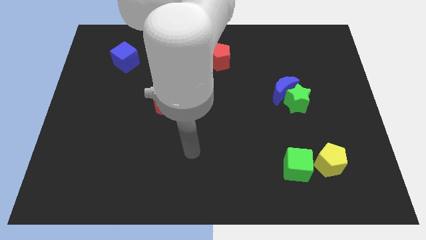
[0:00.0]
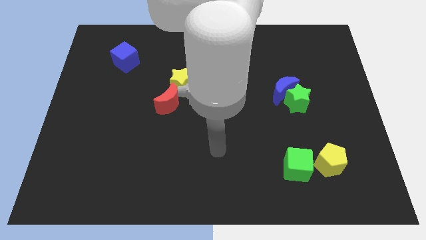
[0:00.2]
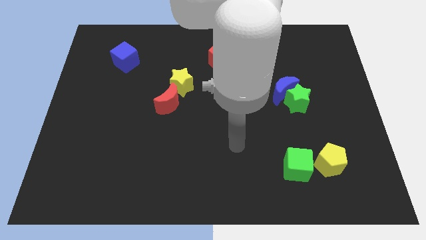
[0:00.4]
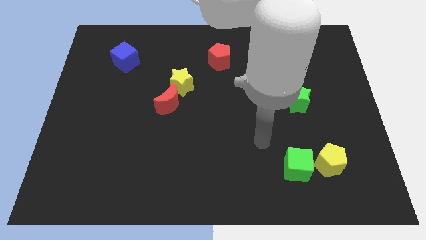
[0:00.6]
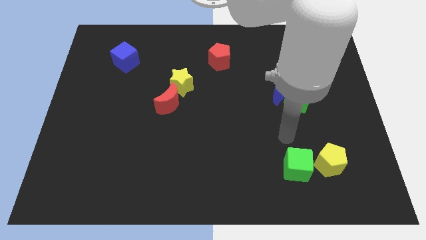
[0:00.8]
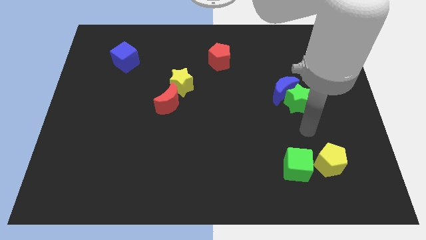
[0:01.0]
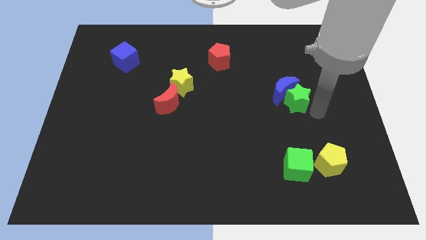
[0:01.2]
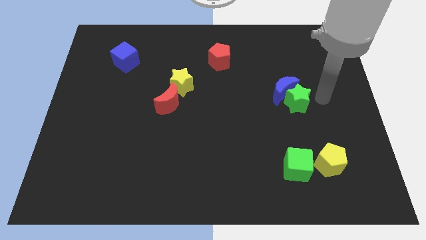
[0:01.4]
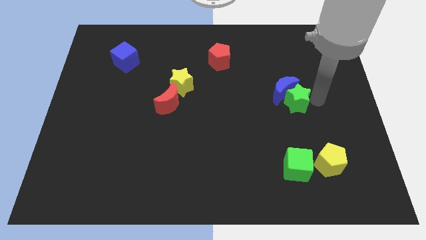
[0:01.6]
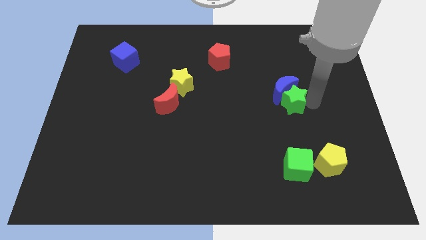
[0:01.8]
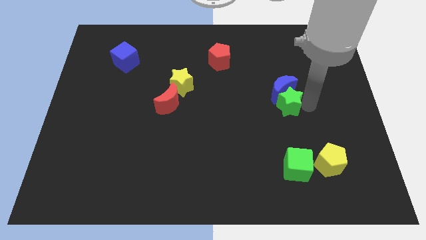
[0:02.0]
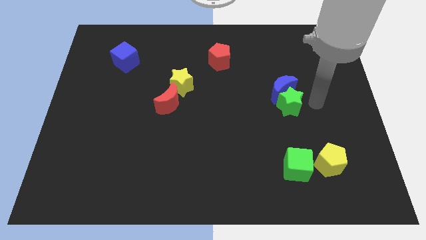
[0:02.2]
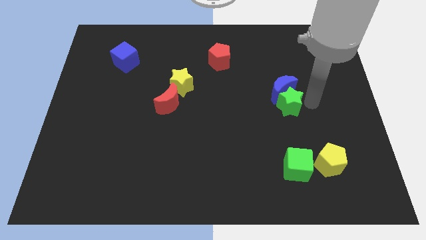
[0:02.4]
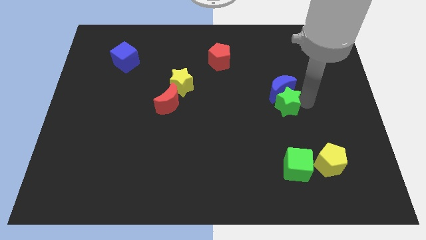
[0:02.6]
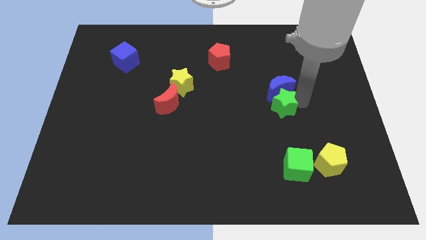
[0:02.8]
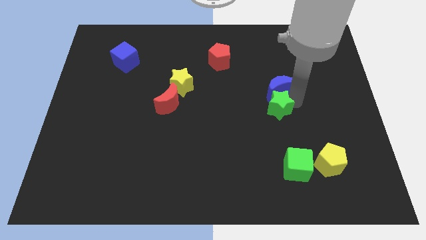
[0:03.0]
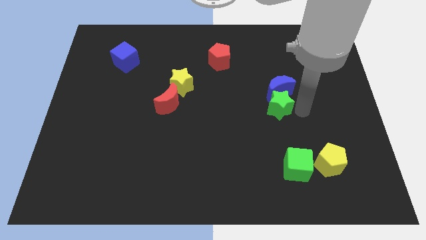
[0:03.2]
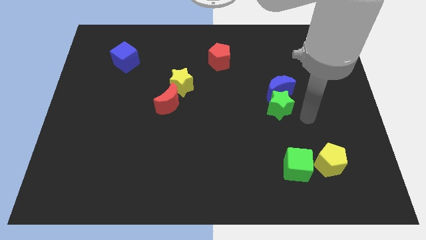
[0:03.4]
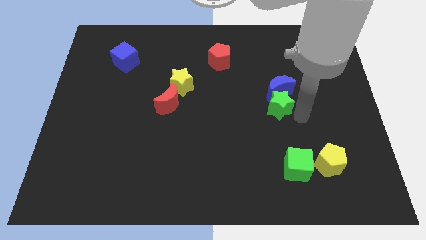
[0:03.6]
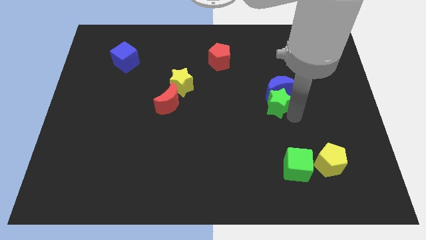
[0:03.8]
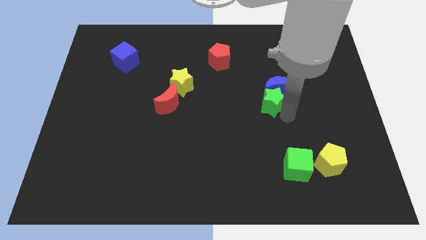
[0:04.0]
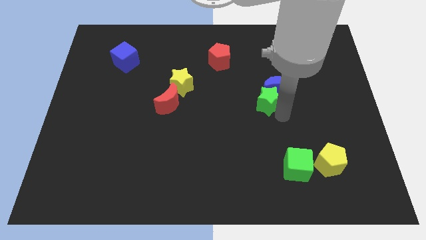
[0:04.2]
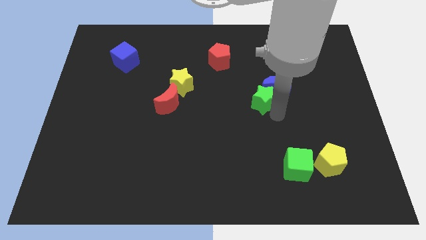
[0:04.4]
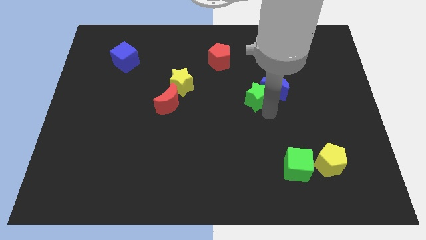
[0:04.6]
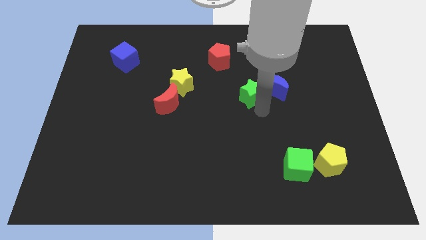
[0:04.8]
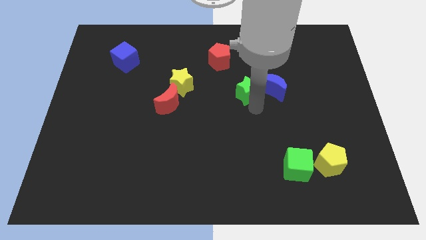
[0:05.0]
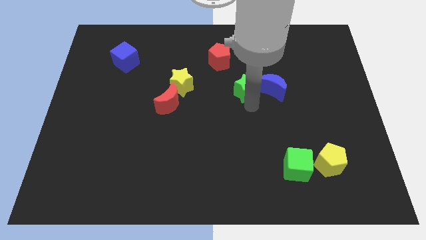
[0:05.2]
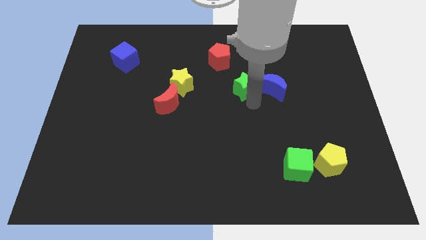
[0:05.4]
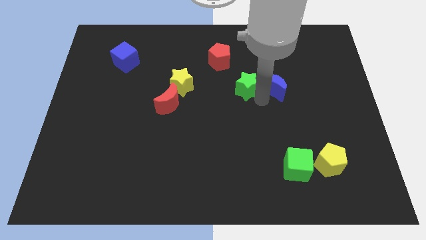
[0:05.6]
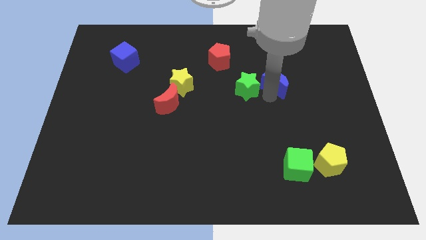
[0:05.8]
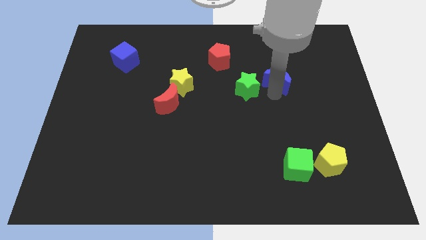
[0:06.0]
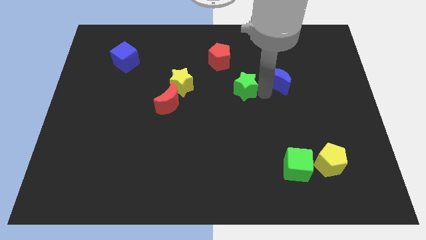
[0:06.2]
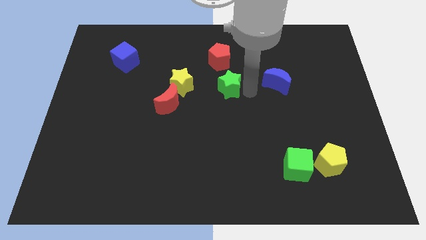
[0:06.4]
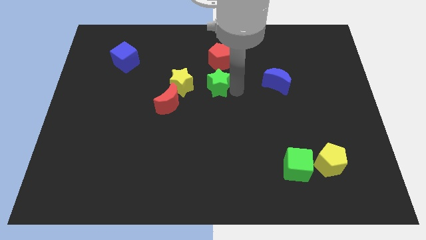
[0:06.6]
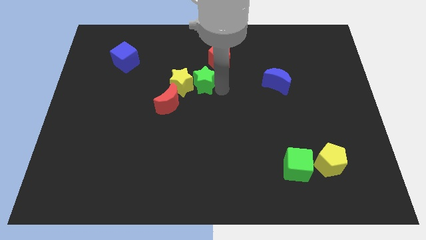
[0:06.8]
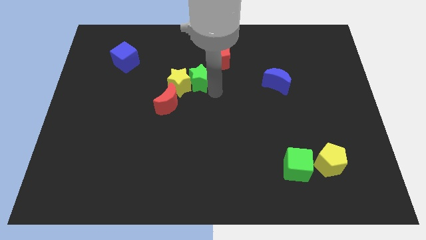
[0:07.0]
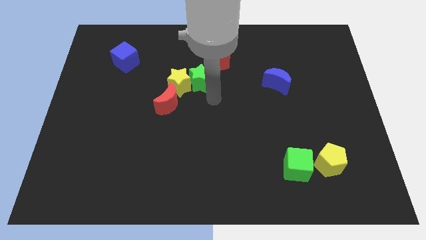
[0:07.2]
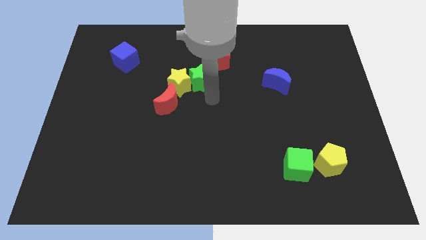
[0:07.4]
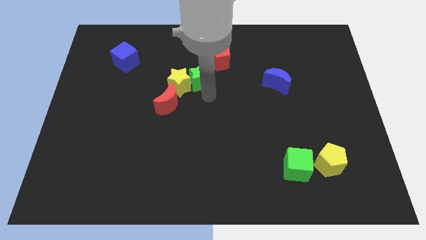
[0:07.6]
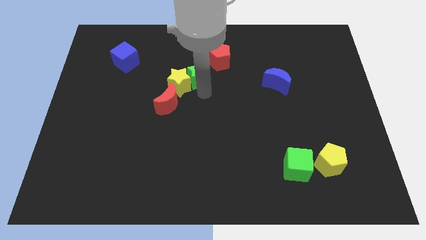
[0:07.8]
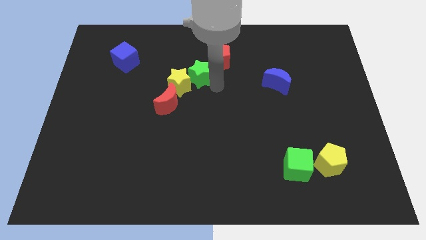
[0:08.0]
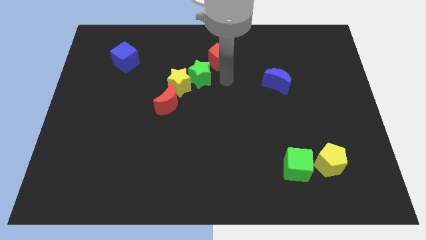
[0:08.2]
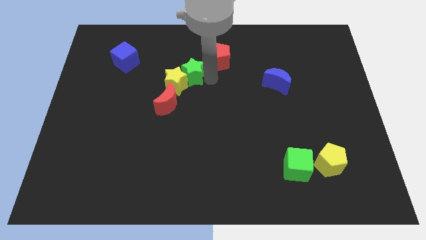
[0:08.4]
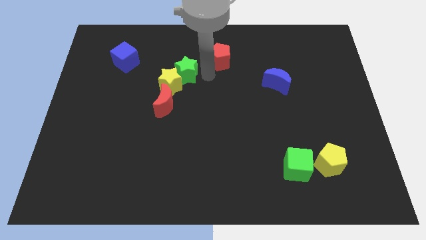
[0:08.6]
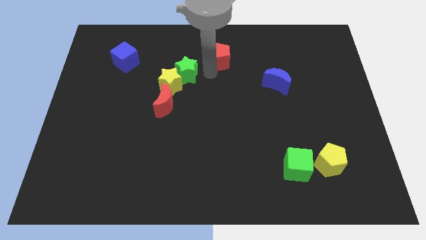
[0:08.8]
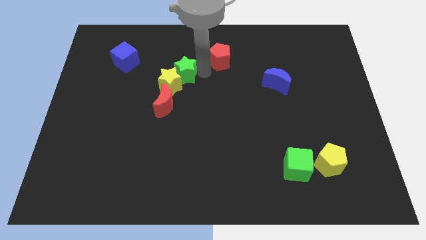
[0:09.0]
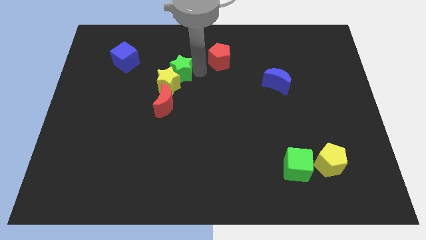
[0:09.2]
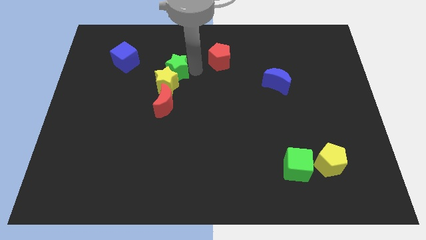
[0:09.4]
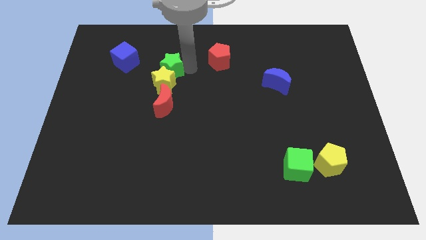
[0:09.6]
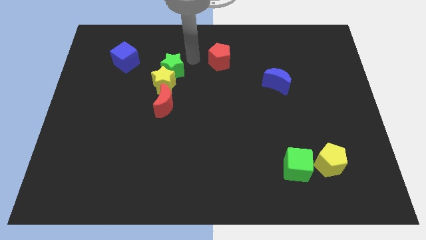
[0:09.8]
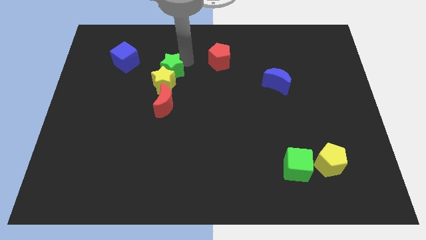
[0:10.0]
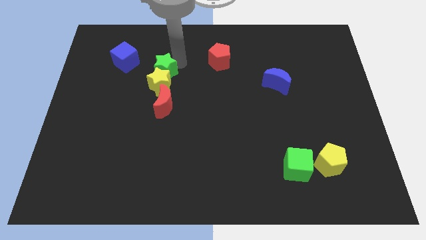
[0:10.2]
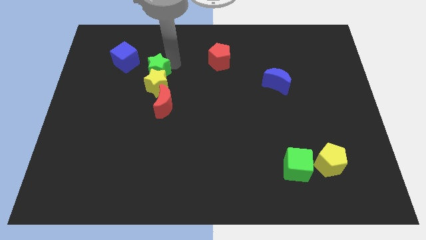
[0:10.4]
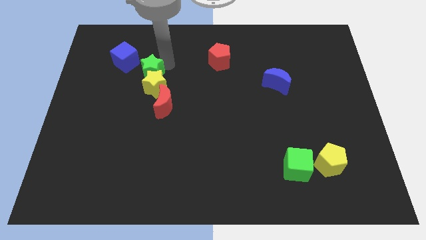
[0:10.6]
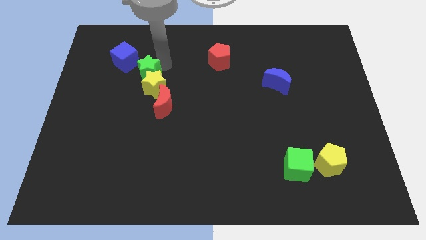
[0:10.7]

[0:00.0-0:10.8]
slide the green star to the top left side of the red moon

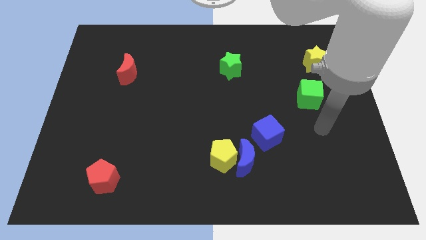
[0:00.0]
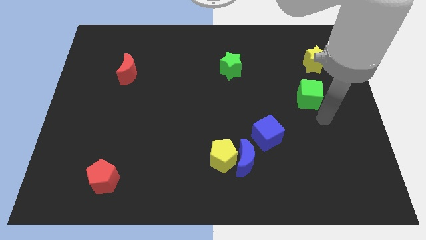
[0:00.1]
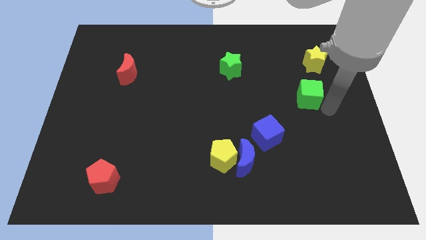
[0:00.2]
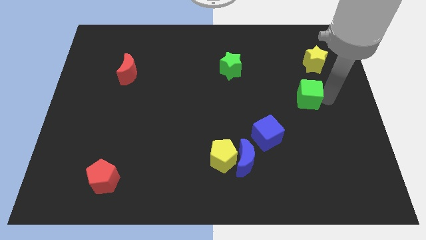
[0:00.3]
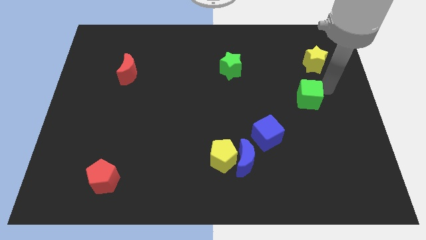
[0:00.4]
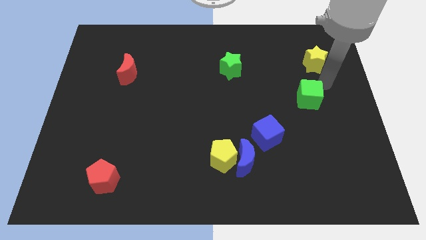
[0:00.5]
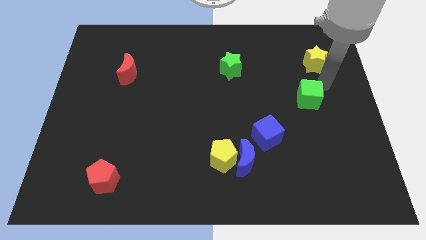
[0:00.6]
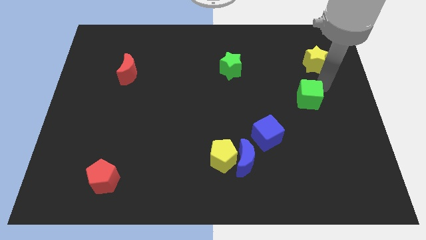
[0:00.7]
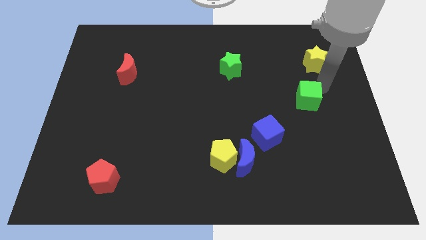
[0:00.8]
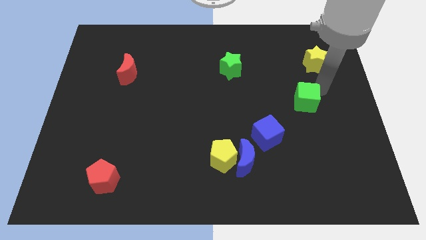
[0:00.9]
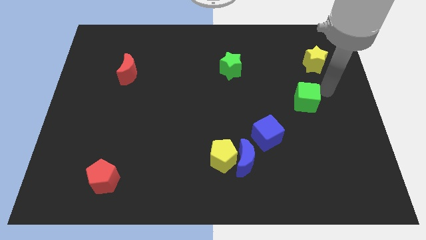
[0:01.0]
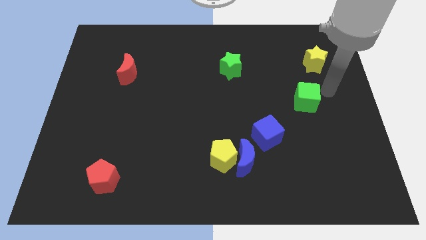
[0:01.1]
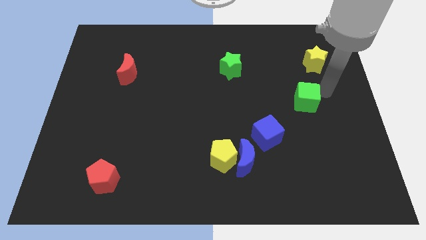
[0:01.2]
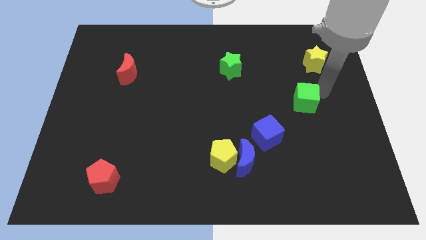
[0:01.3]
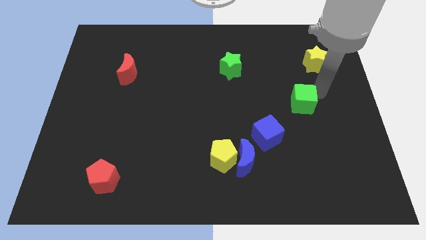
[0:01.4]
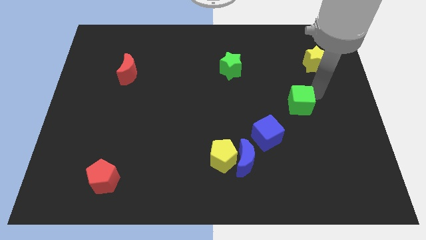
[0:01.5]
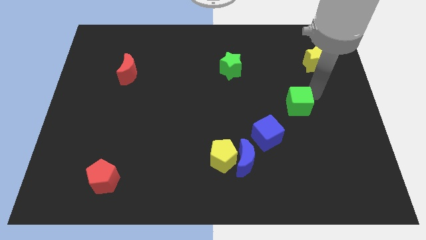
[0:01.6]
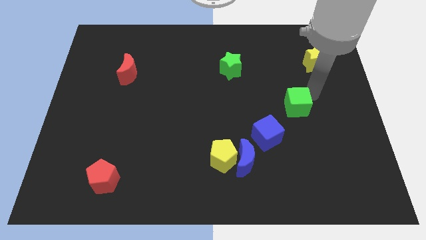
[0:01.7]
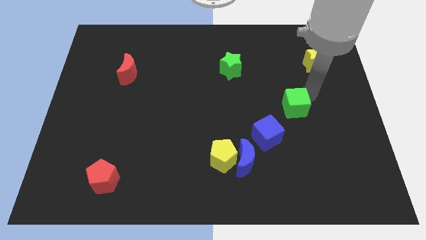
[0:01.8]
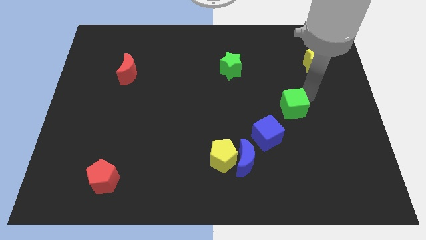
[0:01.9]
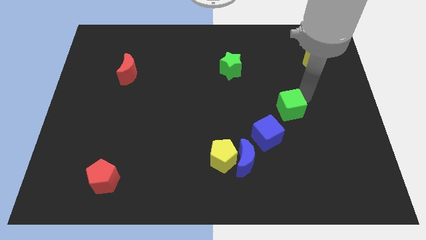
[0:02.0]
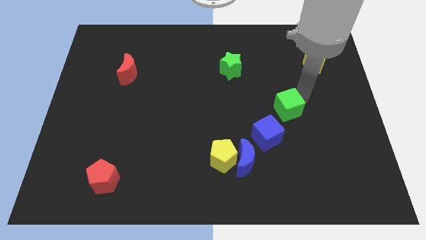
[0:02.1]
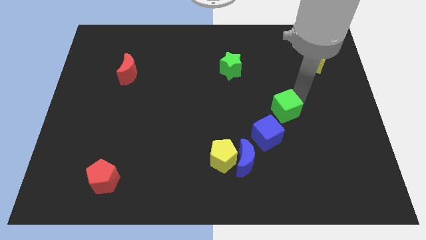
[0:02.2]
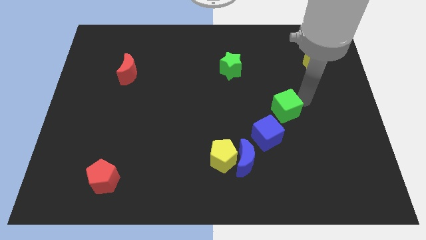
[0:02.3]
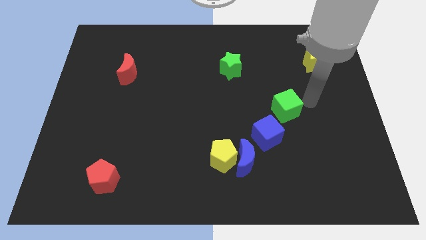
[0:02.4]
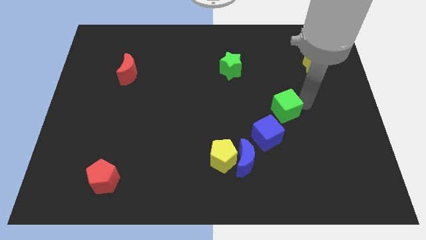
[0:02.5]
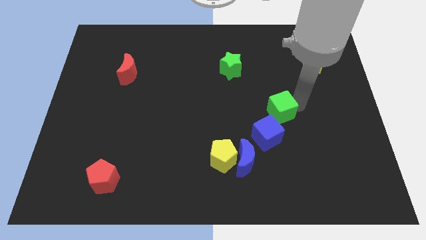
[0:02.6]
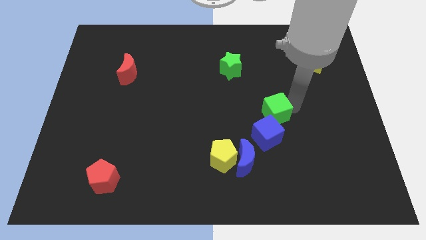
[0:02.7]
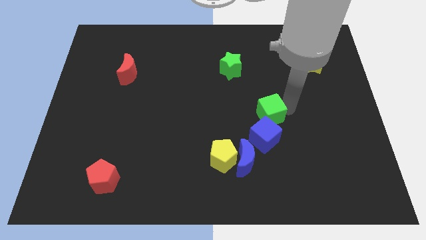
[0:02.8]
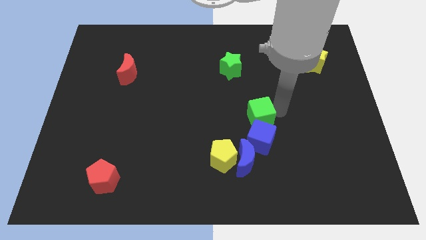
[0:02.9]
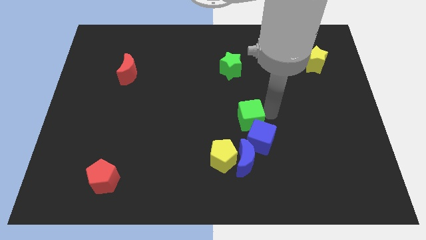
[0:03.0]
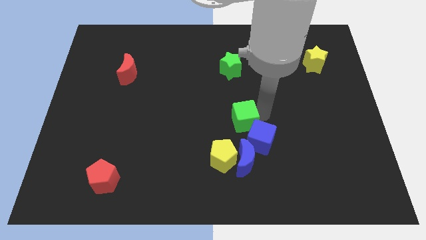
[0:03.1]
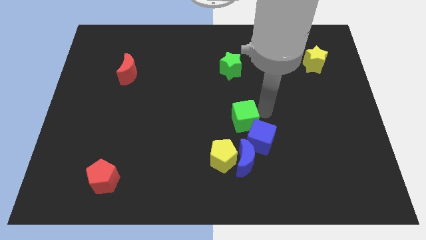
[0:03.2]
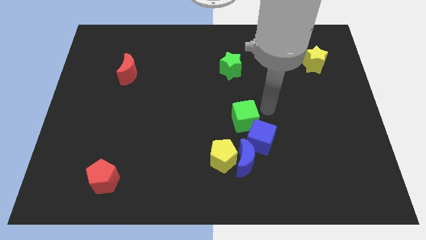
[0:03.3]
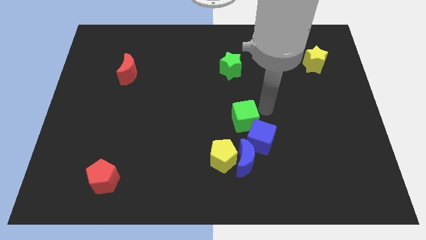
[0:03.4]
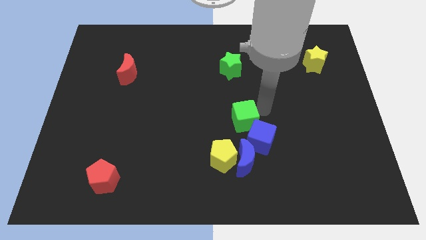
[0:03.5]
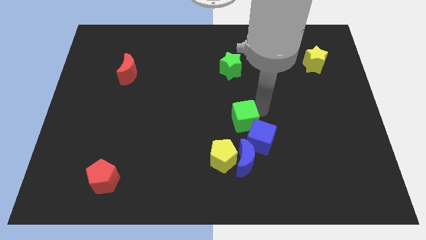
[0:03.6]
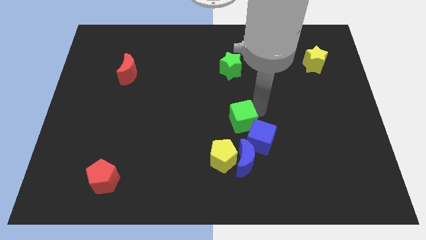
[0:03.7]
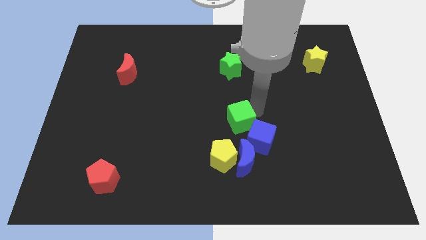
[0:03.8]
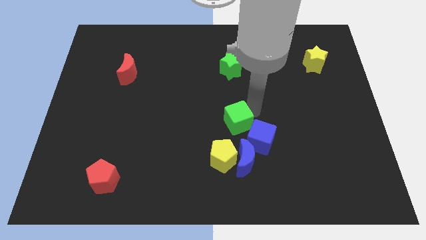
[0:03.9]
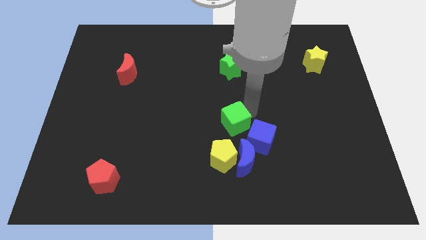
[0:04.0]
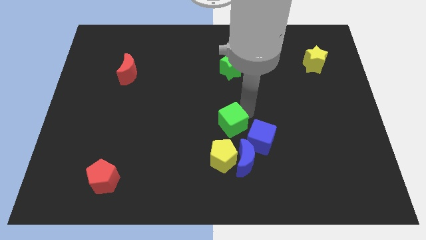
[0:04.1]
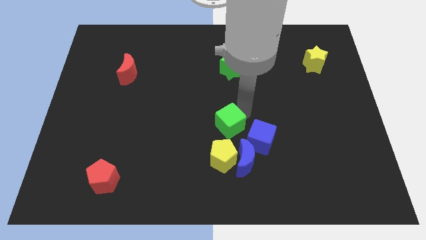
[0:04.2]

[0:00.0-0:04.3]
put the green cube diagonally up and to the left of the blue moon
